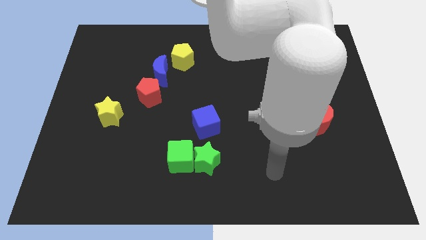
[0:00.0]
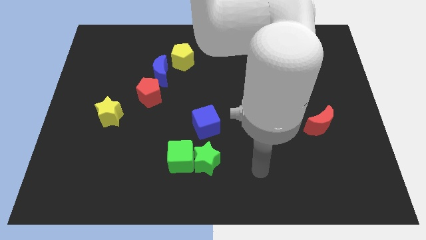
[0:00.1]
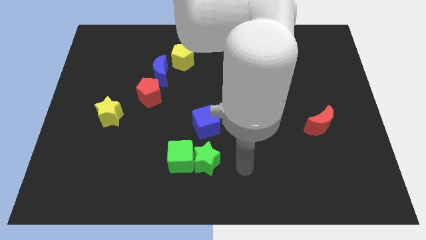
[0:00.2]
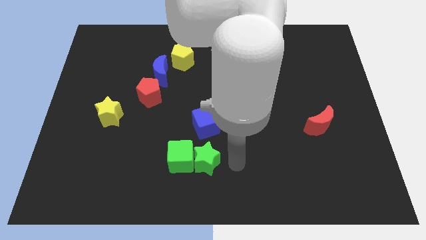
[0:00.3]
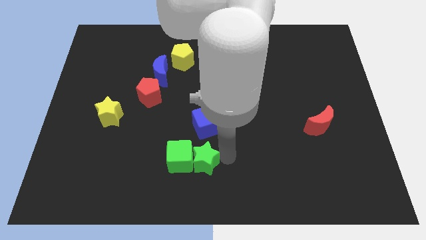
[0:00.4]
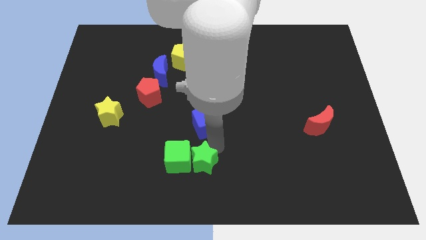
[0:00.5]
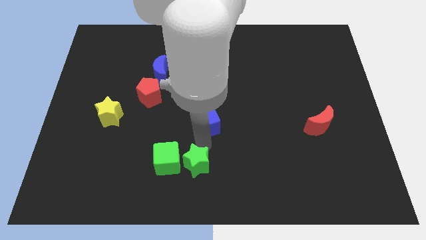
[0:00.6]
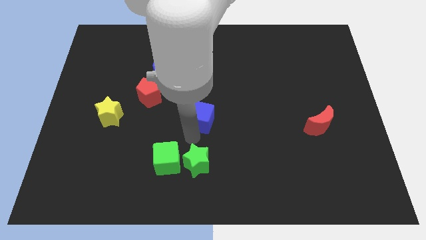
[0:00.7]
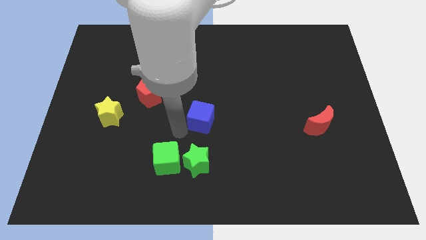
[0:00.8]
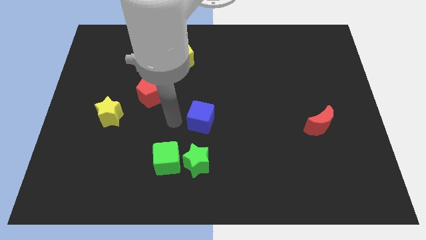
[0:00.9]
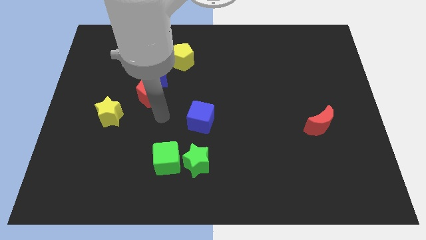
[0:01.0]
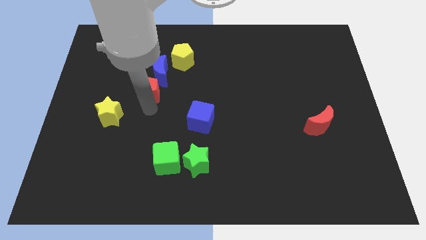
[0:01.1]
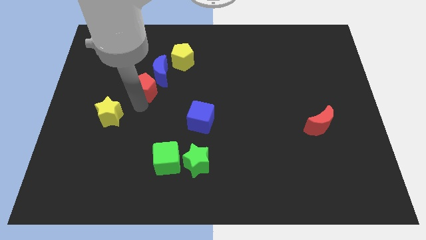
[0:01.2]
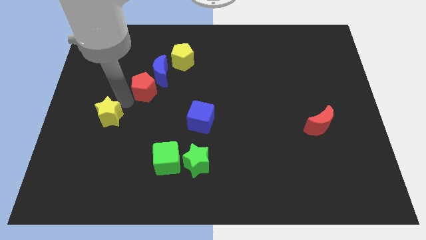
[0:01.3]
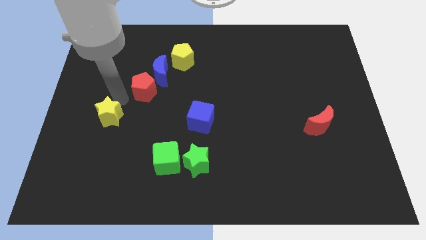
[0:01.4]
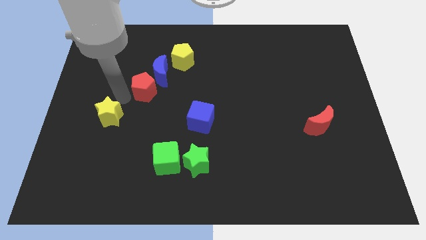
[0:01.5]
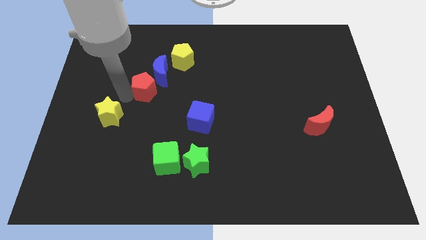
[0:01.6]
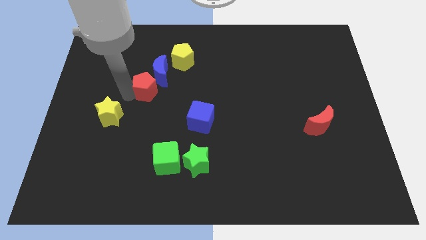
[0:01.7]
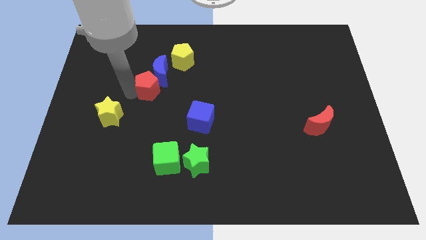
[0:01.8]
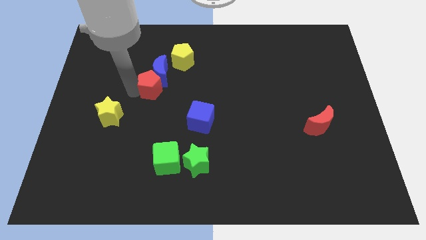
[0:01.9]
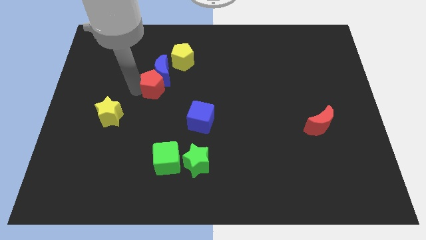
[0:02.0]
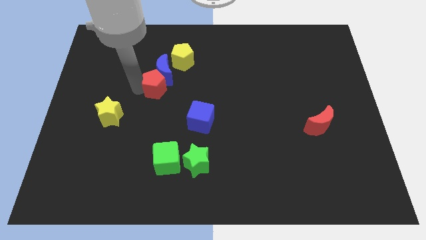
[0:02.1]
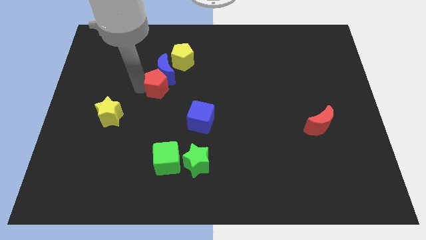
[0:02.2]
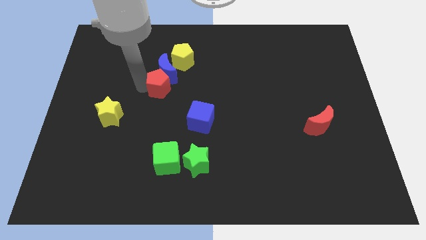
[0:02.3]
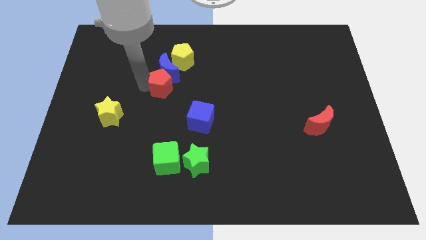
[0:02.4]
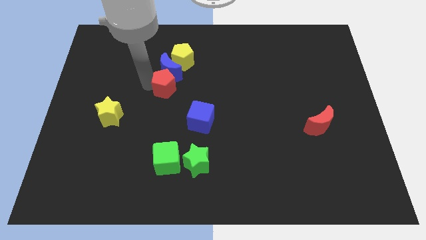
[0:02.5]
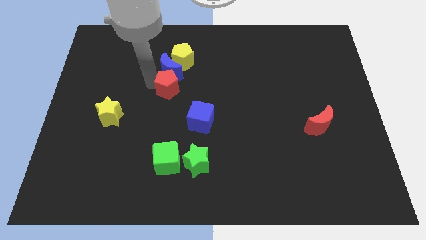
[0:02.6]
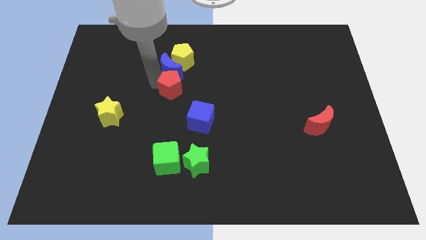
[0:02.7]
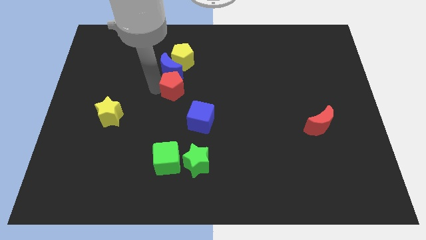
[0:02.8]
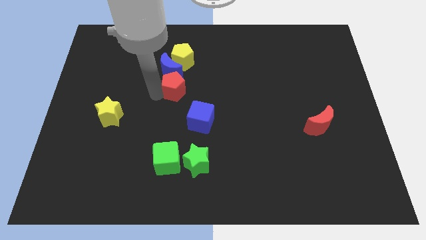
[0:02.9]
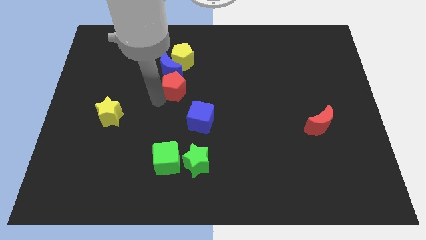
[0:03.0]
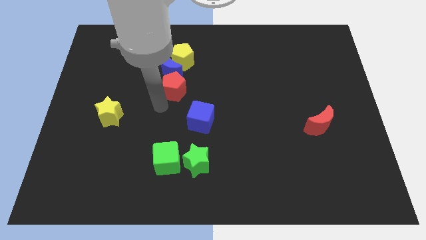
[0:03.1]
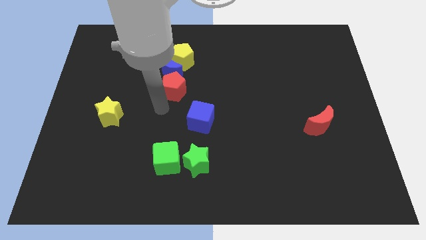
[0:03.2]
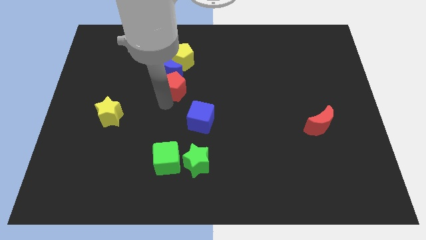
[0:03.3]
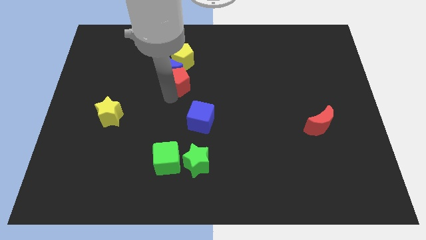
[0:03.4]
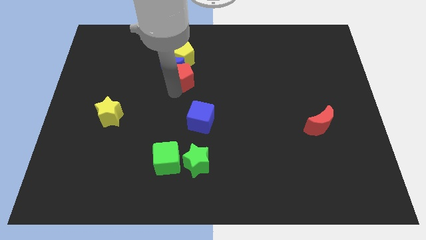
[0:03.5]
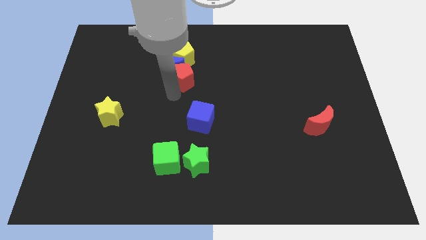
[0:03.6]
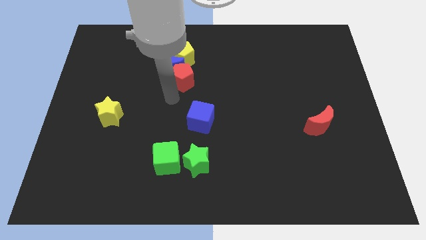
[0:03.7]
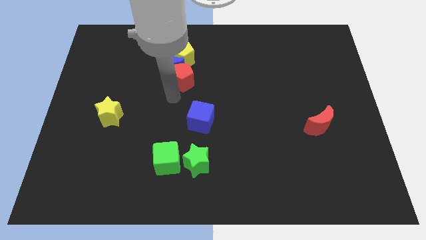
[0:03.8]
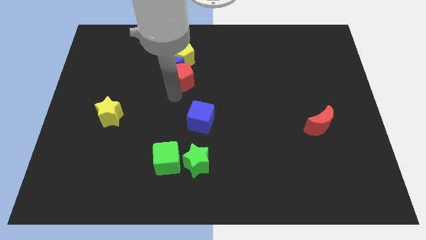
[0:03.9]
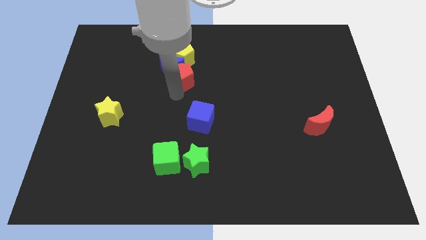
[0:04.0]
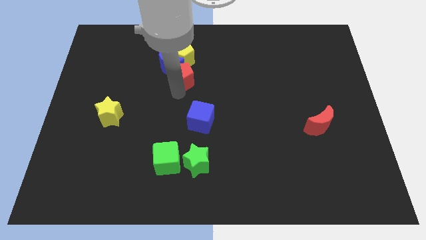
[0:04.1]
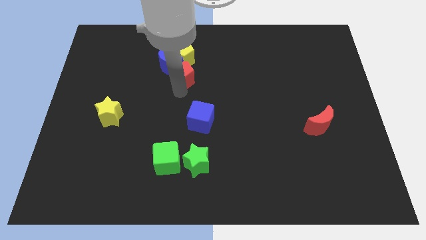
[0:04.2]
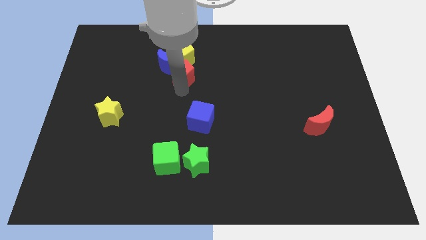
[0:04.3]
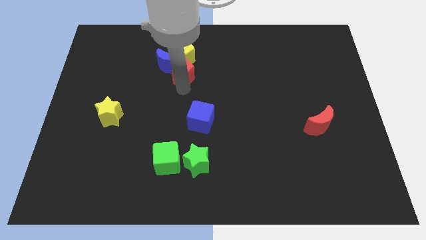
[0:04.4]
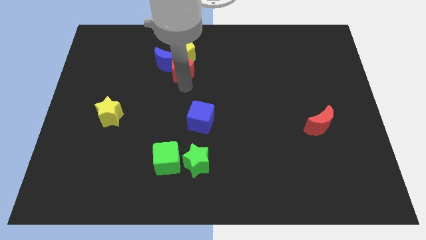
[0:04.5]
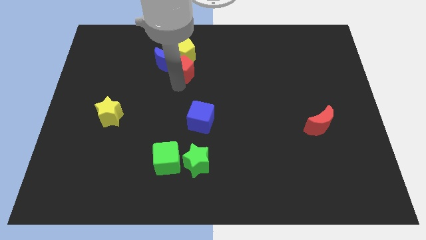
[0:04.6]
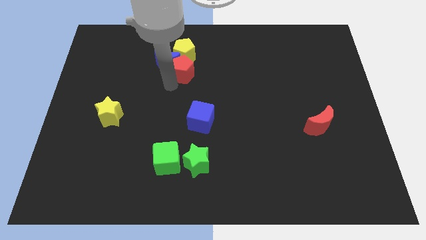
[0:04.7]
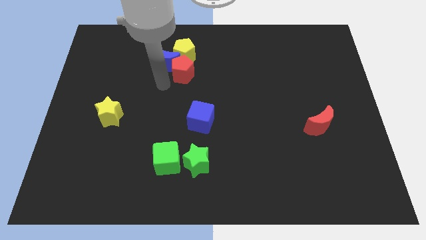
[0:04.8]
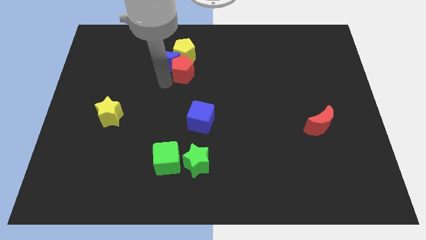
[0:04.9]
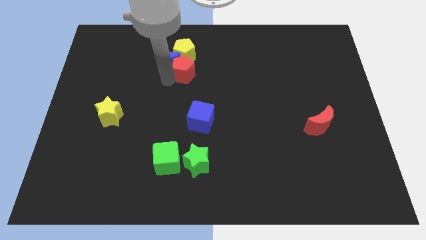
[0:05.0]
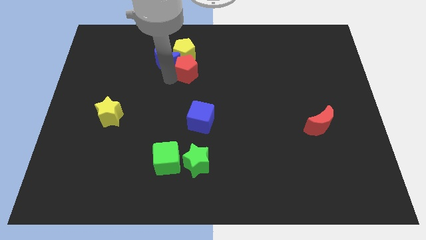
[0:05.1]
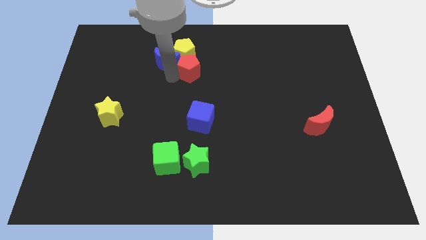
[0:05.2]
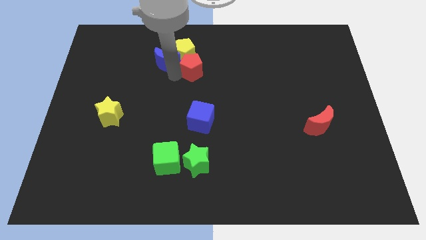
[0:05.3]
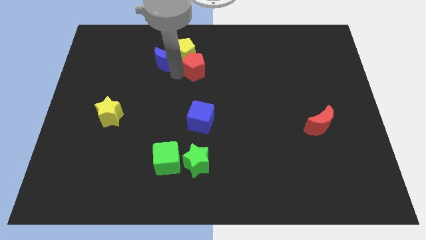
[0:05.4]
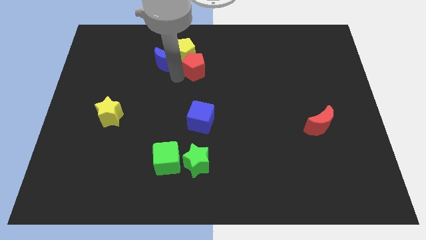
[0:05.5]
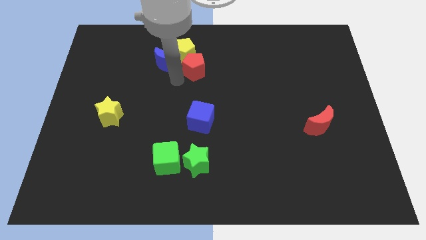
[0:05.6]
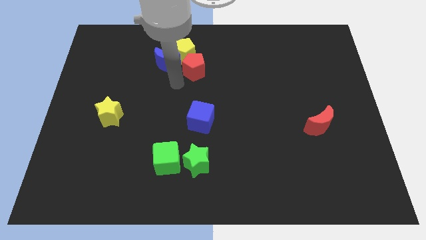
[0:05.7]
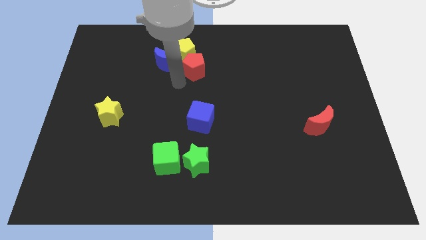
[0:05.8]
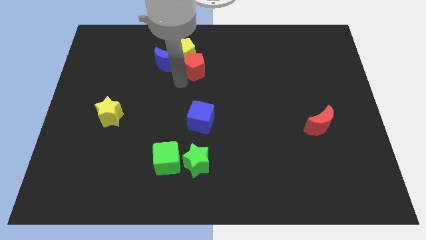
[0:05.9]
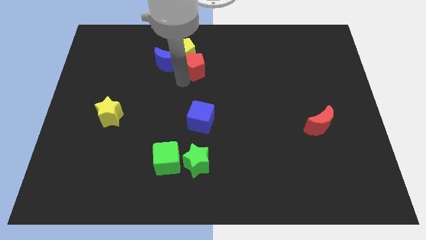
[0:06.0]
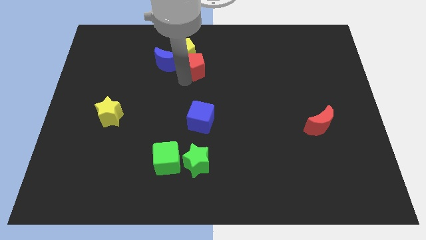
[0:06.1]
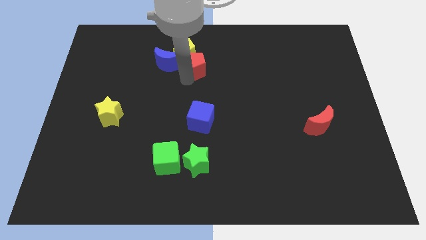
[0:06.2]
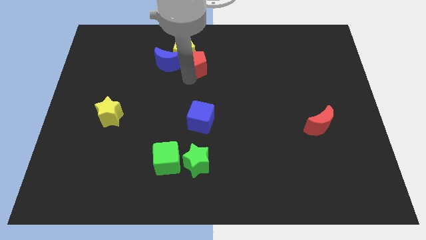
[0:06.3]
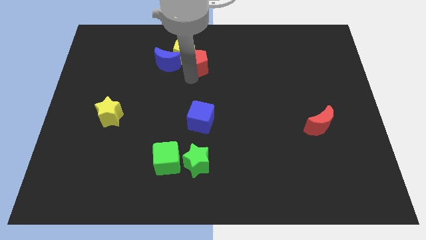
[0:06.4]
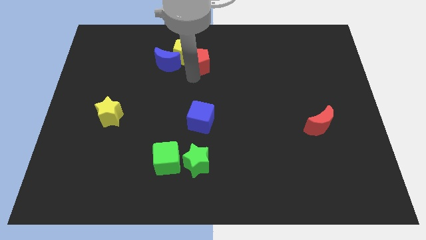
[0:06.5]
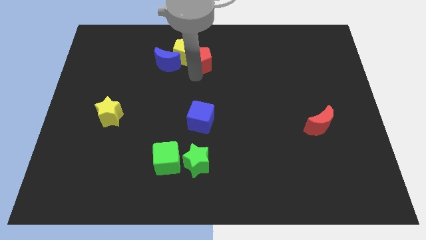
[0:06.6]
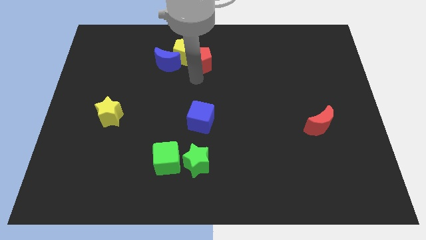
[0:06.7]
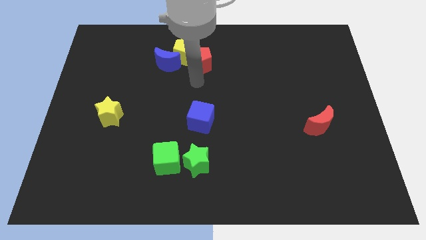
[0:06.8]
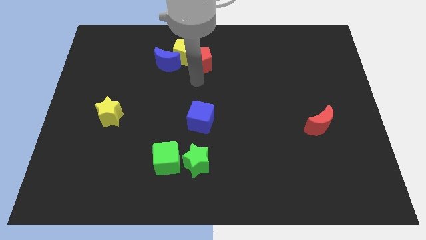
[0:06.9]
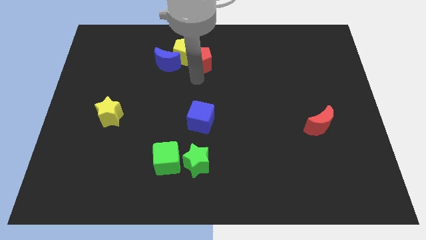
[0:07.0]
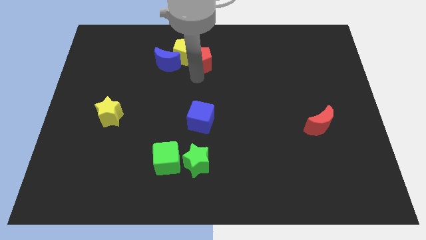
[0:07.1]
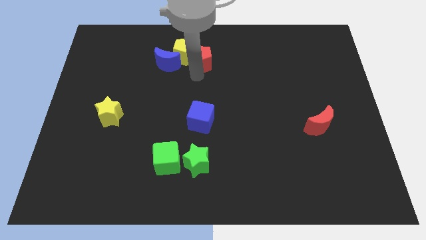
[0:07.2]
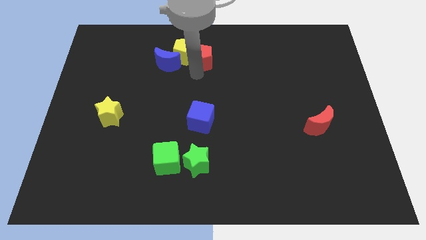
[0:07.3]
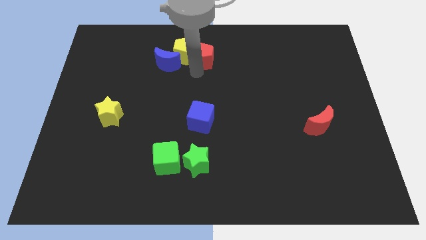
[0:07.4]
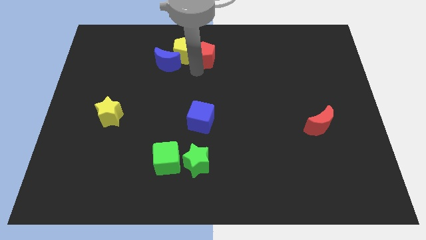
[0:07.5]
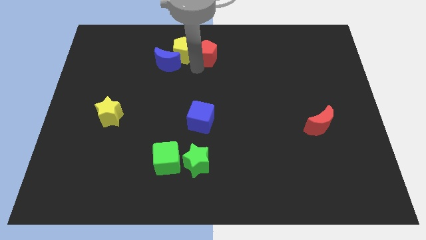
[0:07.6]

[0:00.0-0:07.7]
slide the red pentagon to the top
